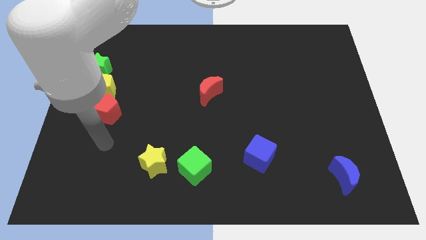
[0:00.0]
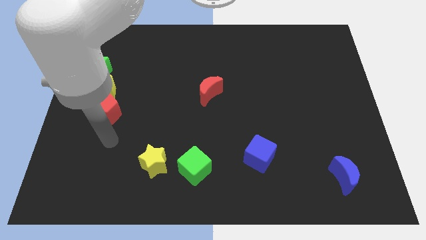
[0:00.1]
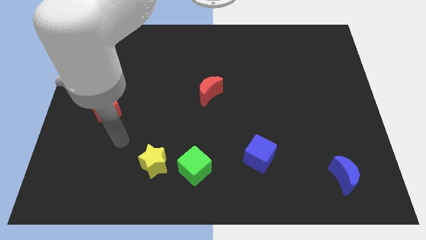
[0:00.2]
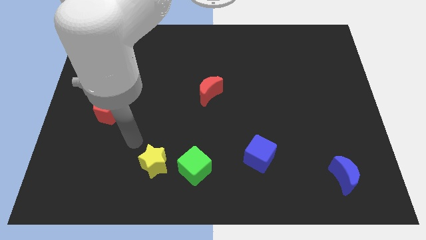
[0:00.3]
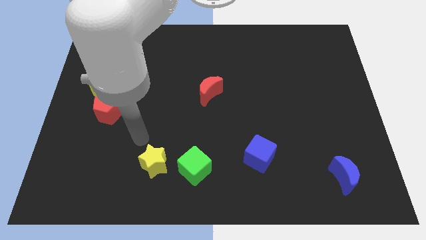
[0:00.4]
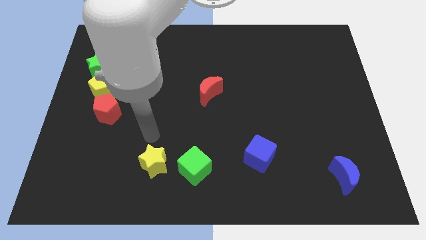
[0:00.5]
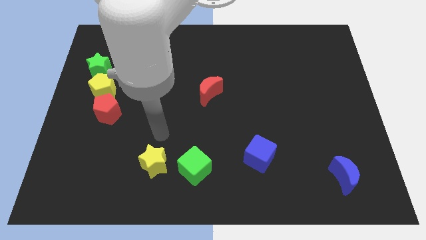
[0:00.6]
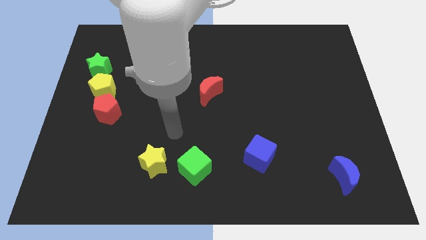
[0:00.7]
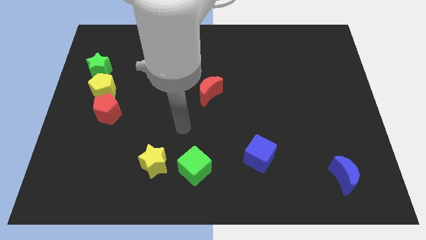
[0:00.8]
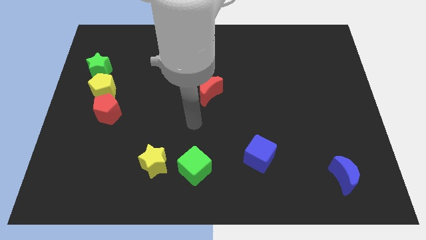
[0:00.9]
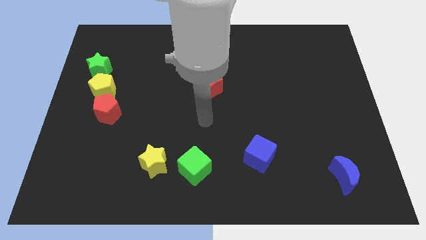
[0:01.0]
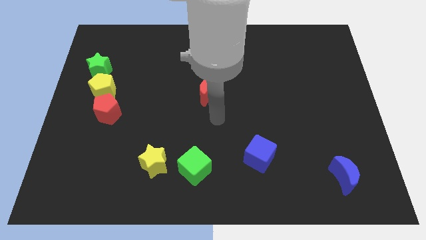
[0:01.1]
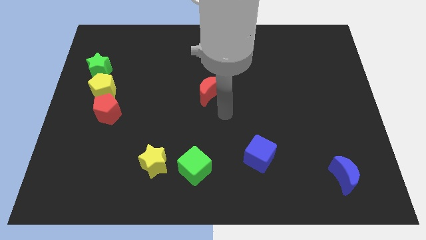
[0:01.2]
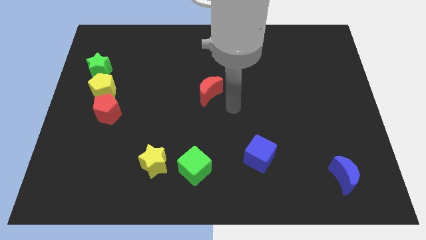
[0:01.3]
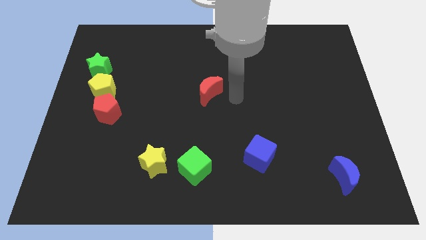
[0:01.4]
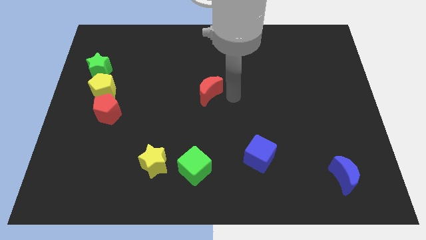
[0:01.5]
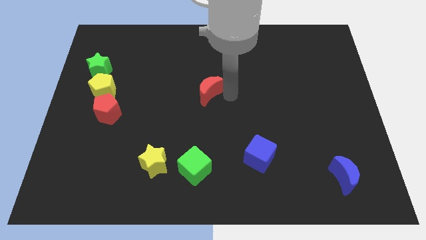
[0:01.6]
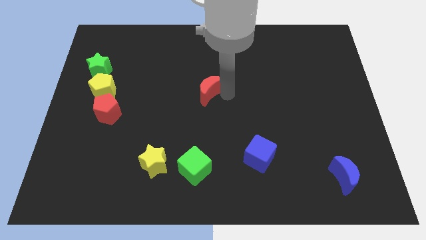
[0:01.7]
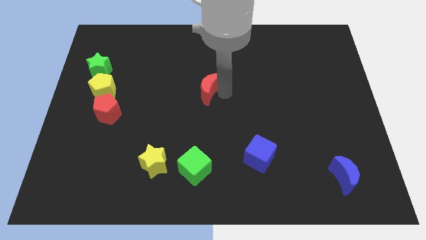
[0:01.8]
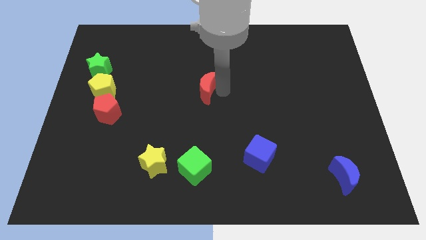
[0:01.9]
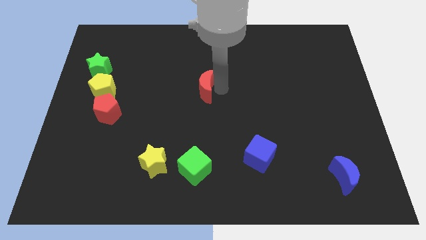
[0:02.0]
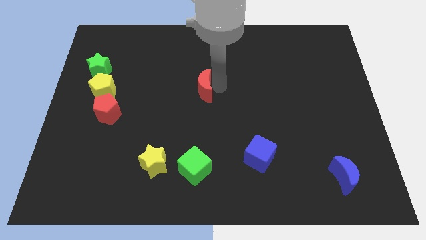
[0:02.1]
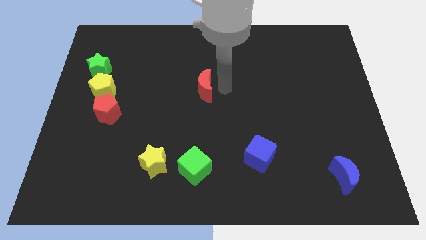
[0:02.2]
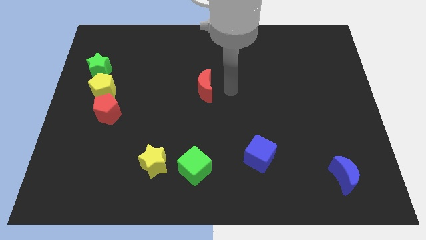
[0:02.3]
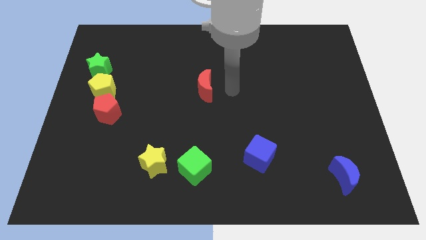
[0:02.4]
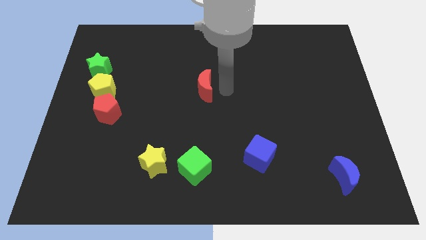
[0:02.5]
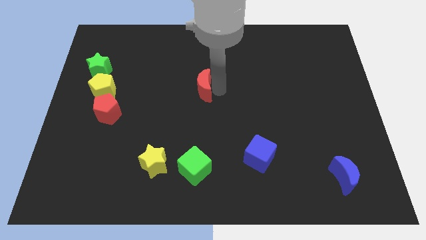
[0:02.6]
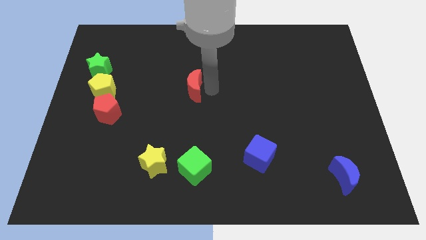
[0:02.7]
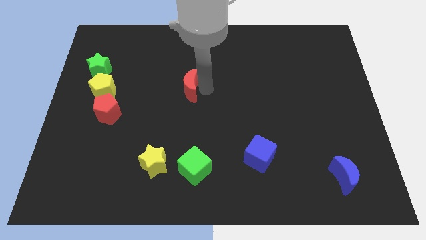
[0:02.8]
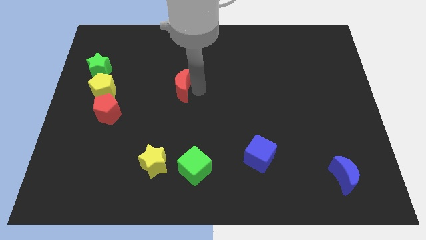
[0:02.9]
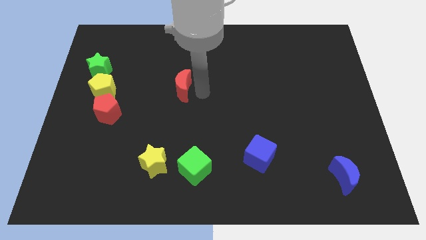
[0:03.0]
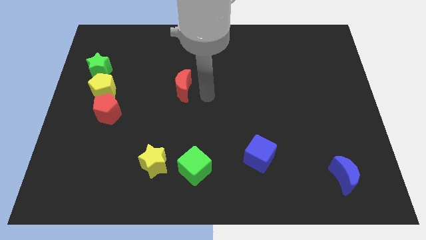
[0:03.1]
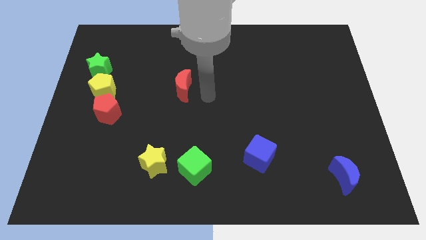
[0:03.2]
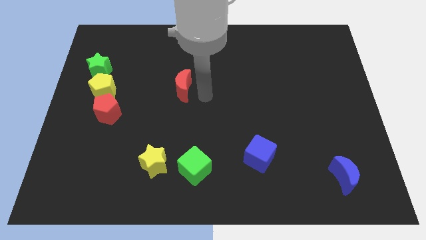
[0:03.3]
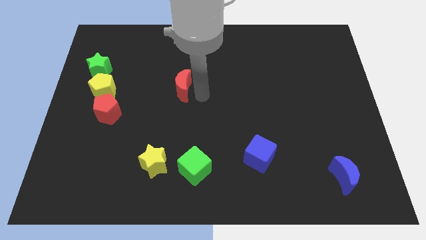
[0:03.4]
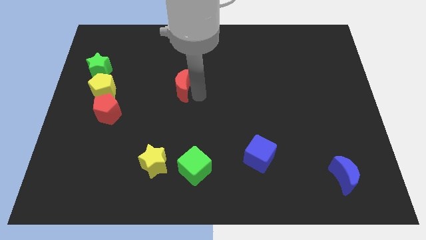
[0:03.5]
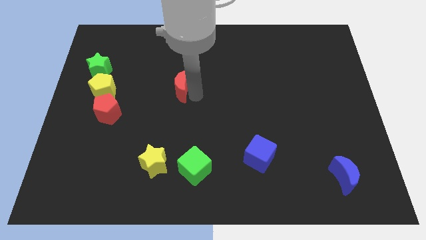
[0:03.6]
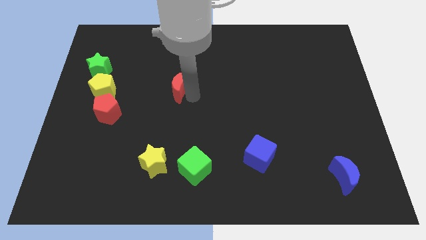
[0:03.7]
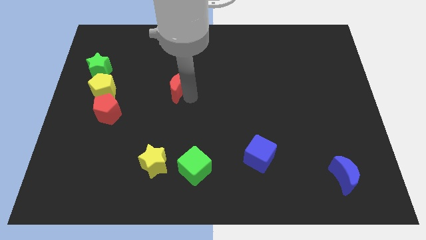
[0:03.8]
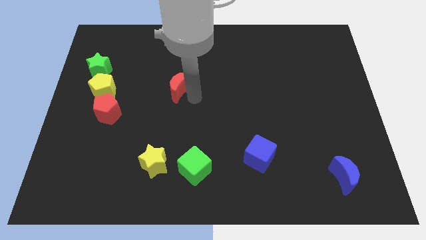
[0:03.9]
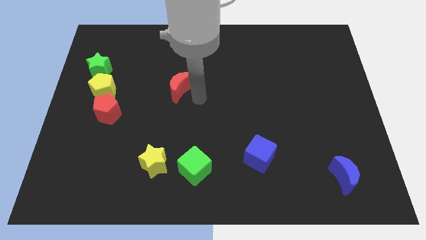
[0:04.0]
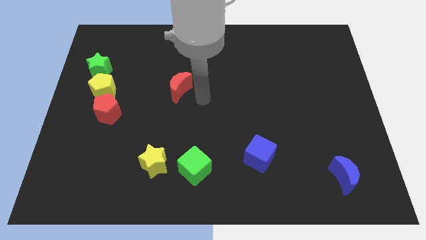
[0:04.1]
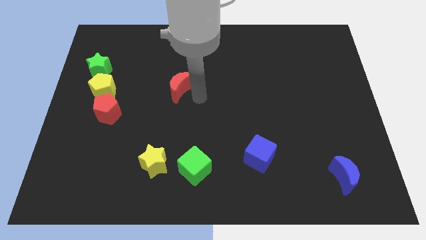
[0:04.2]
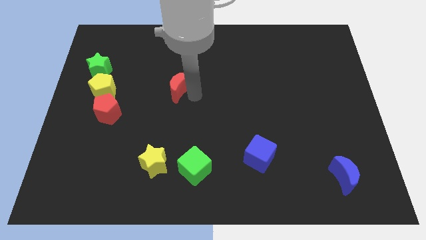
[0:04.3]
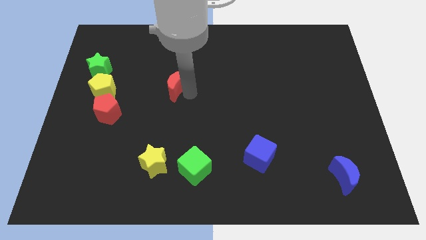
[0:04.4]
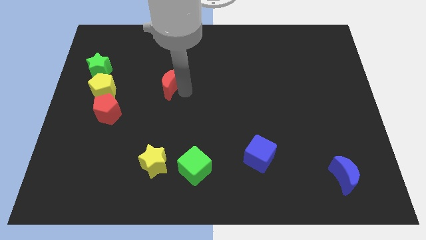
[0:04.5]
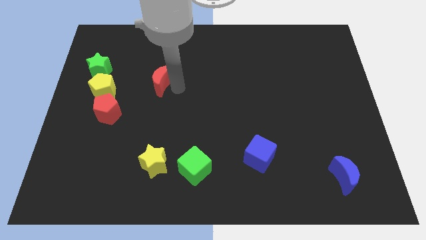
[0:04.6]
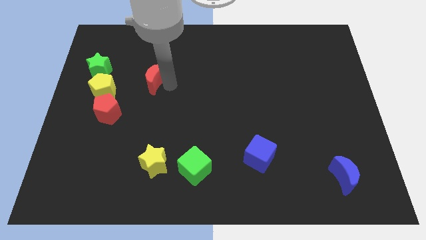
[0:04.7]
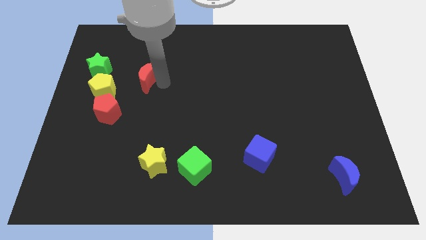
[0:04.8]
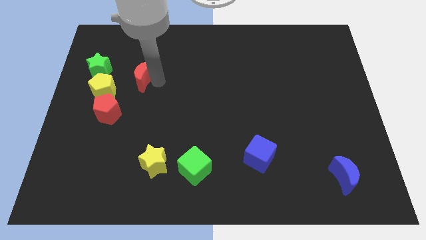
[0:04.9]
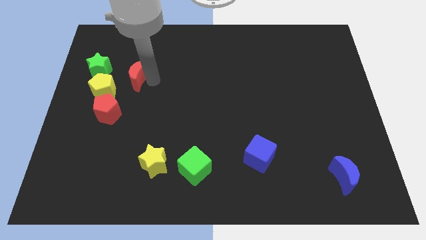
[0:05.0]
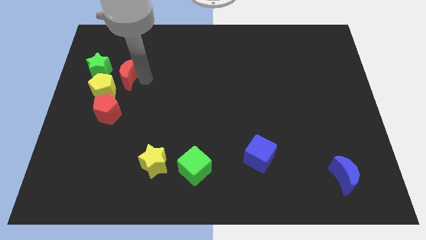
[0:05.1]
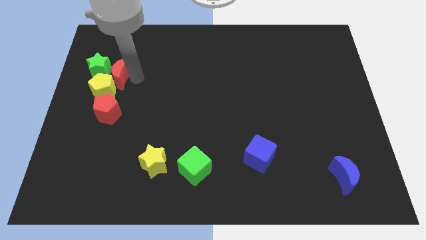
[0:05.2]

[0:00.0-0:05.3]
push the red moon towards the green star
